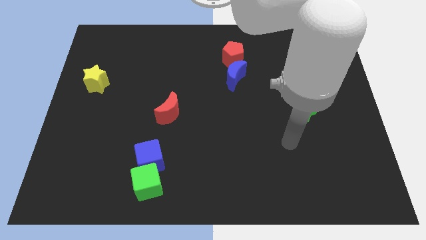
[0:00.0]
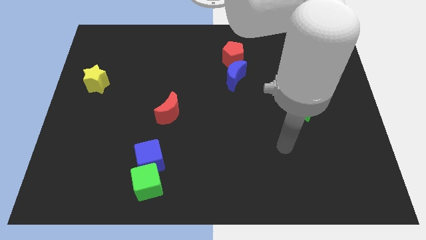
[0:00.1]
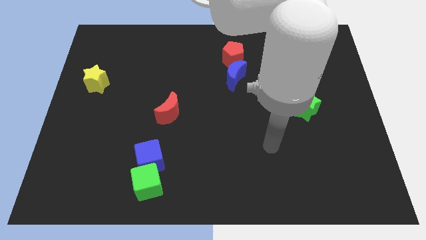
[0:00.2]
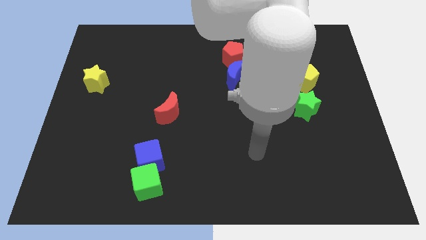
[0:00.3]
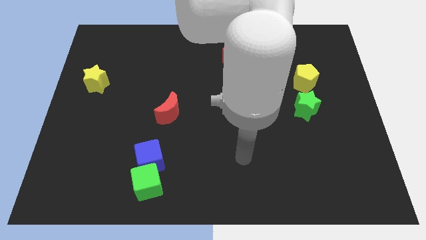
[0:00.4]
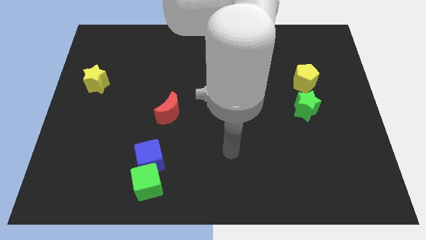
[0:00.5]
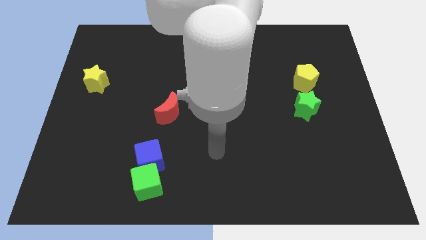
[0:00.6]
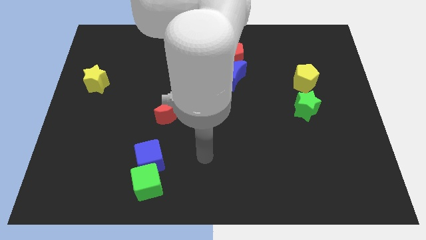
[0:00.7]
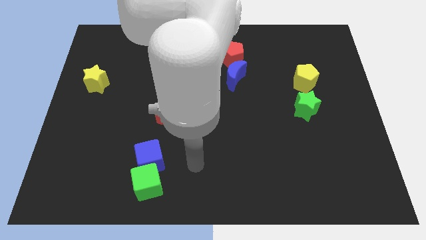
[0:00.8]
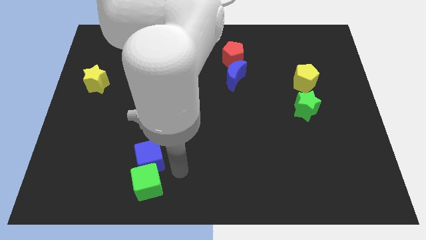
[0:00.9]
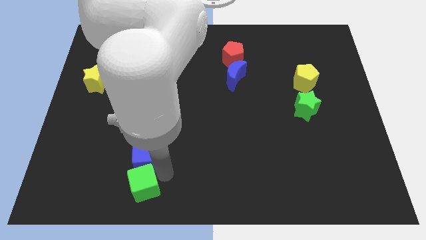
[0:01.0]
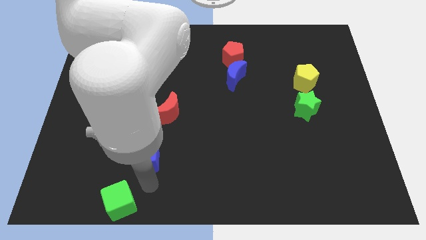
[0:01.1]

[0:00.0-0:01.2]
separate the blue cube from the green cube

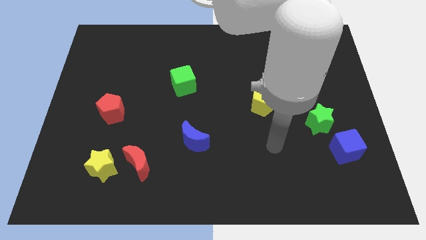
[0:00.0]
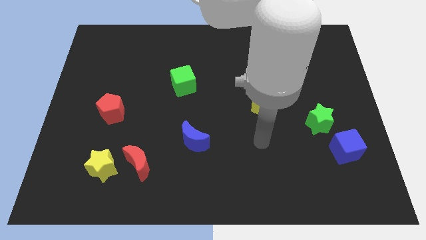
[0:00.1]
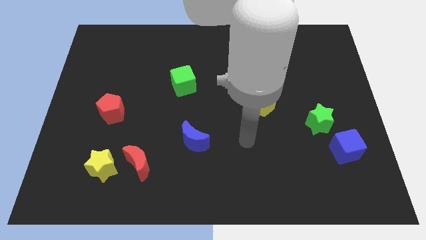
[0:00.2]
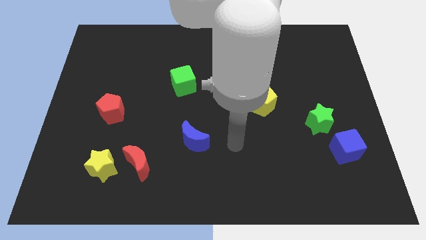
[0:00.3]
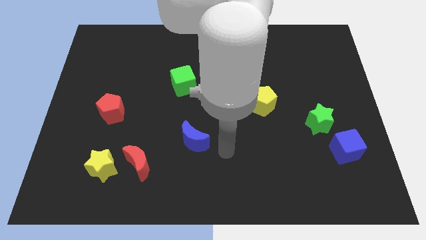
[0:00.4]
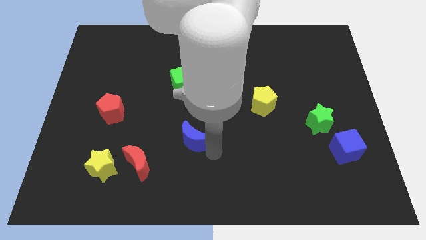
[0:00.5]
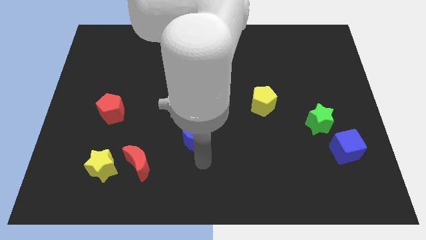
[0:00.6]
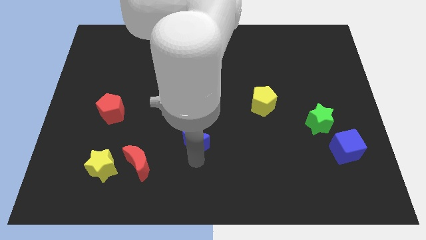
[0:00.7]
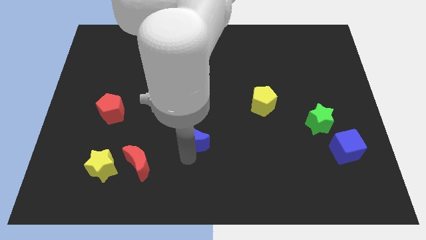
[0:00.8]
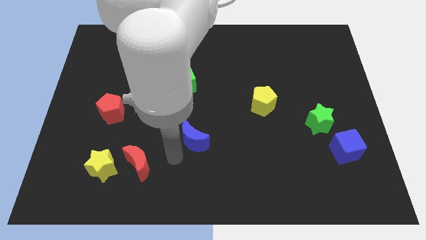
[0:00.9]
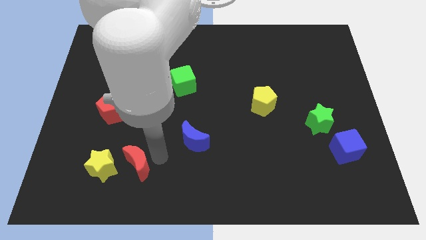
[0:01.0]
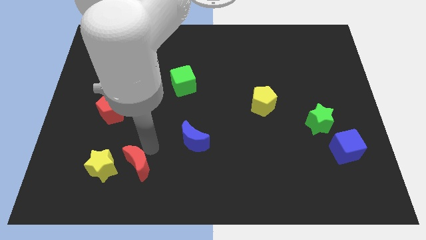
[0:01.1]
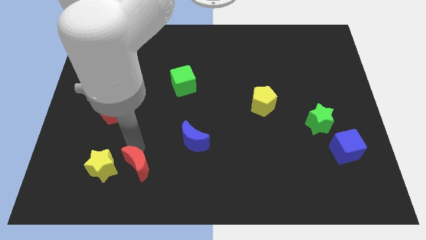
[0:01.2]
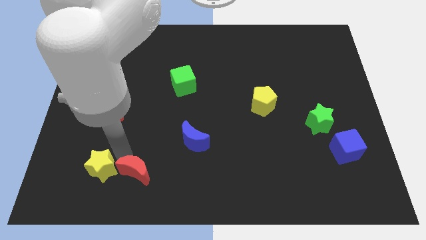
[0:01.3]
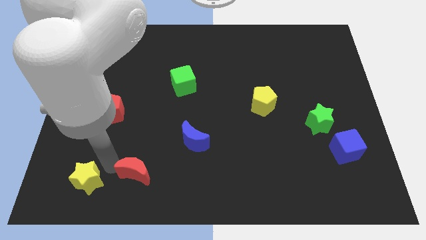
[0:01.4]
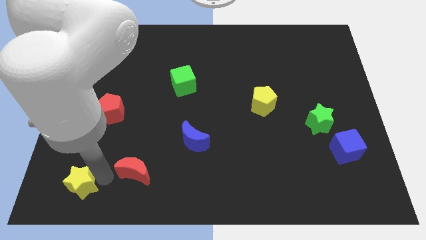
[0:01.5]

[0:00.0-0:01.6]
move the red moon away from the yellow star

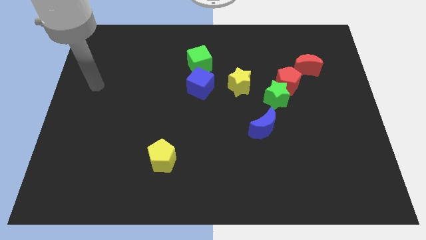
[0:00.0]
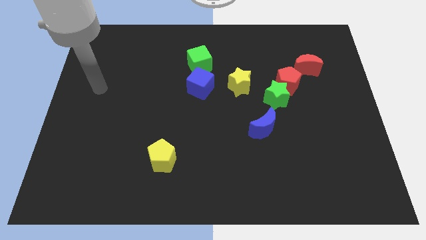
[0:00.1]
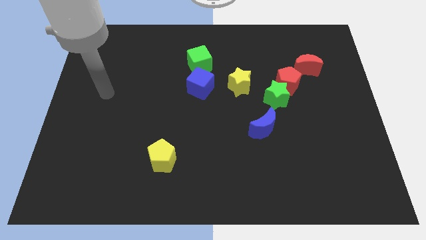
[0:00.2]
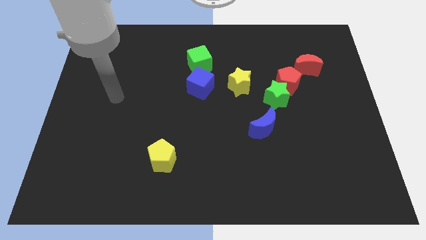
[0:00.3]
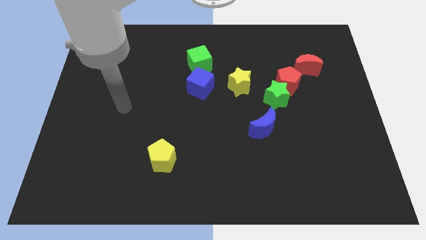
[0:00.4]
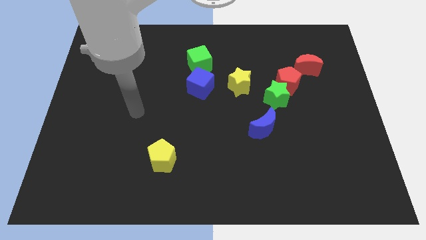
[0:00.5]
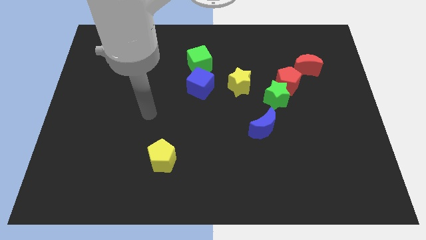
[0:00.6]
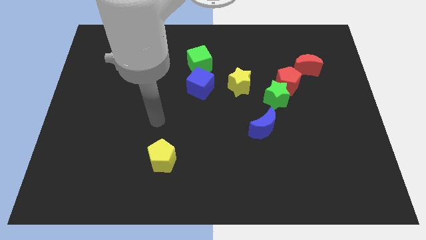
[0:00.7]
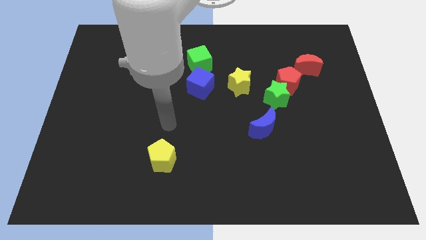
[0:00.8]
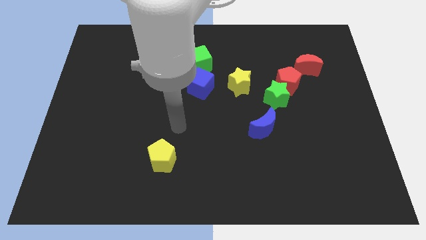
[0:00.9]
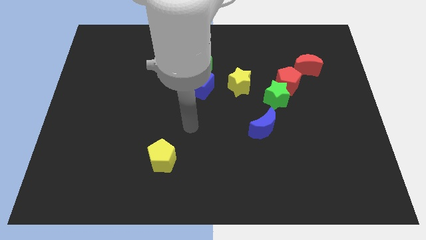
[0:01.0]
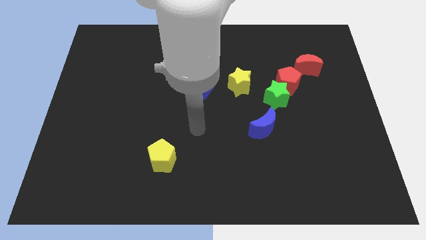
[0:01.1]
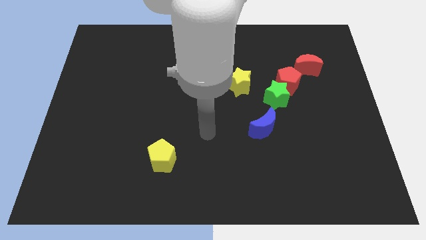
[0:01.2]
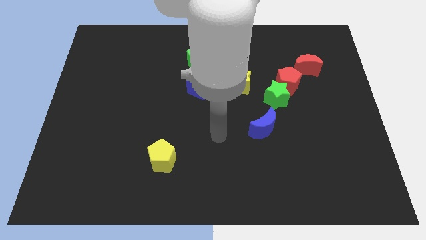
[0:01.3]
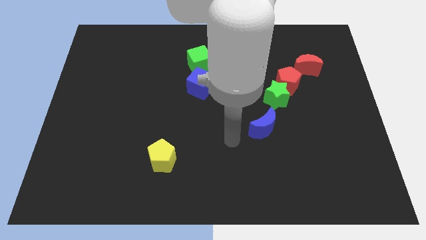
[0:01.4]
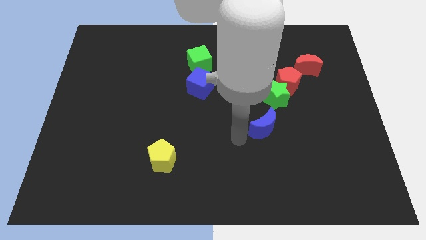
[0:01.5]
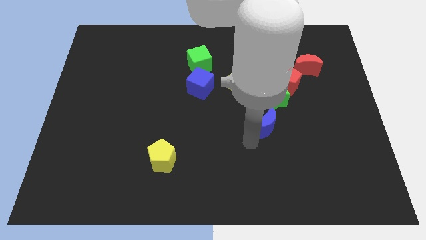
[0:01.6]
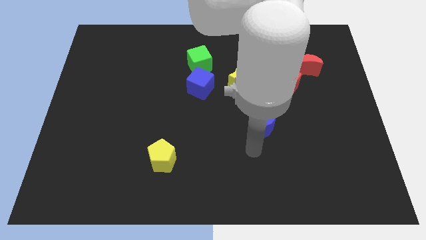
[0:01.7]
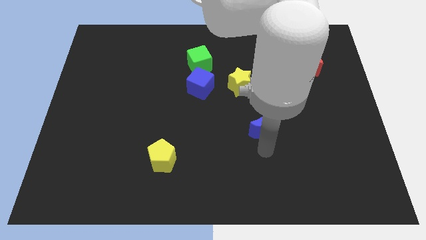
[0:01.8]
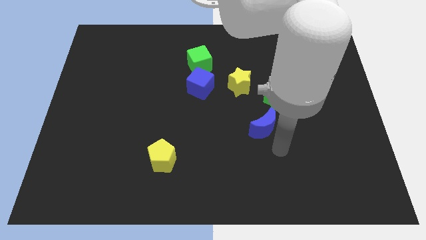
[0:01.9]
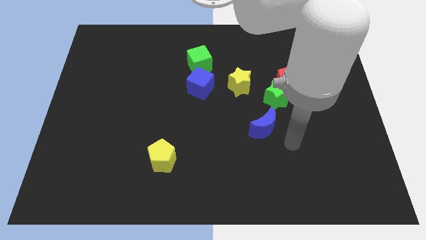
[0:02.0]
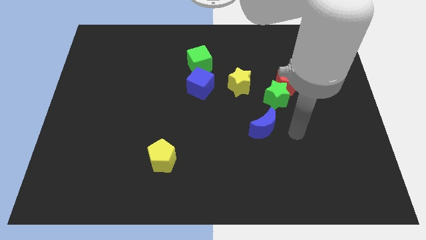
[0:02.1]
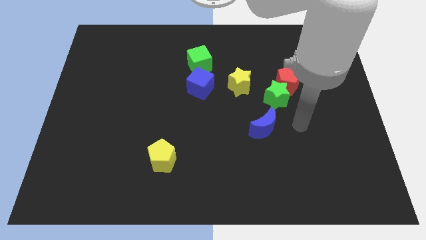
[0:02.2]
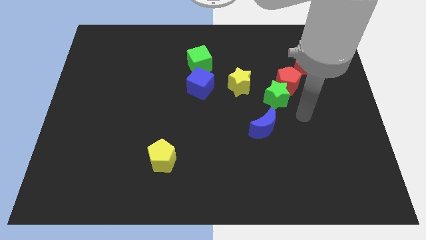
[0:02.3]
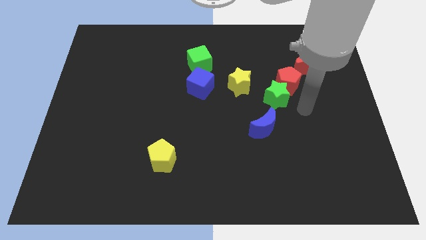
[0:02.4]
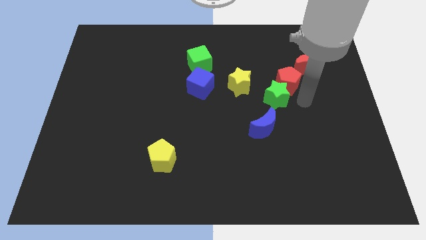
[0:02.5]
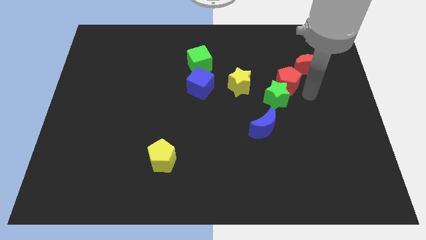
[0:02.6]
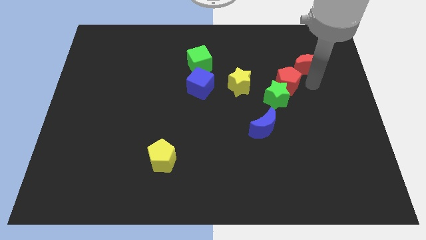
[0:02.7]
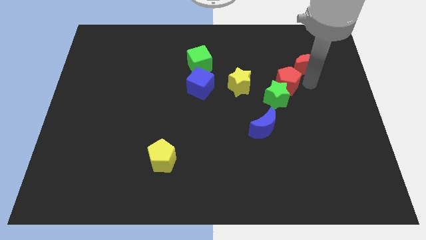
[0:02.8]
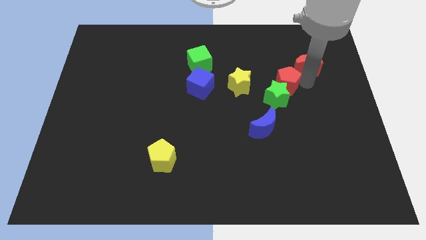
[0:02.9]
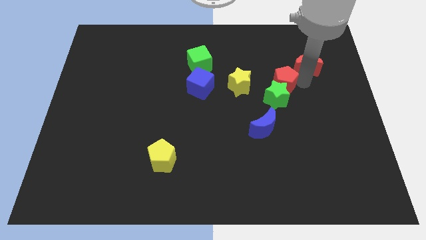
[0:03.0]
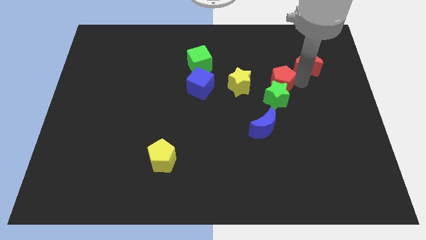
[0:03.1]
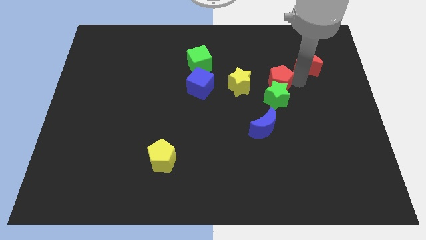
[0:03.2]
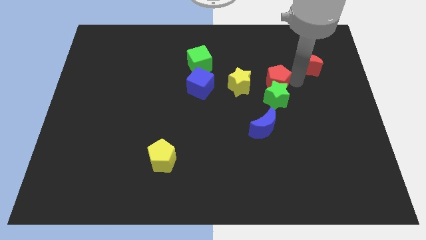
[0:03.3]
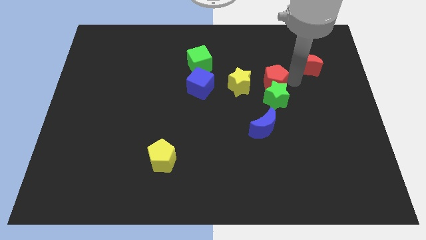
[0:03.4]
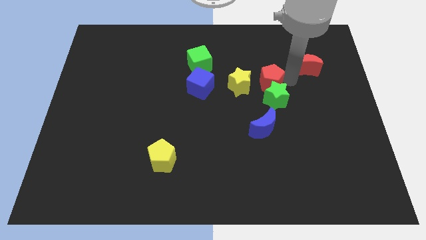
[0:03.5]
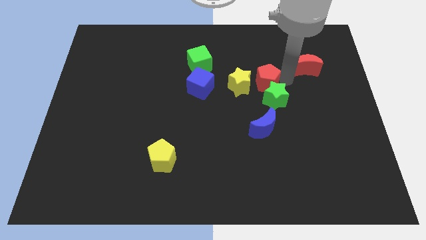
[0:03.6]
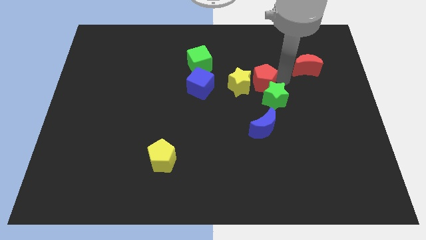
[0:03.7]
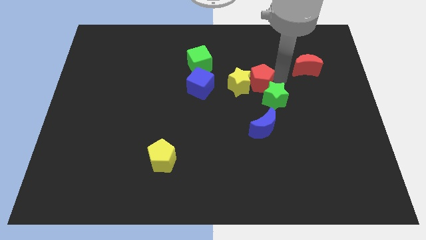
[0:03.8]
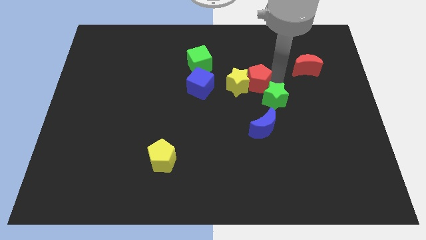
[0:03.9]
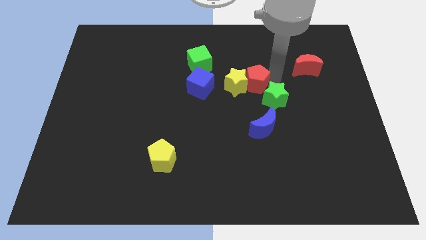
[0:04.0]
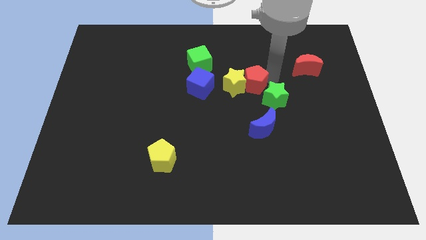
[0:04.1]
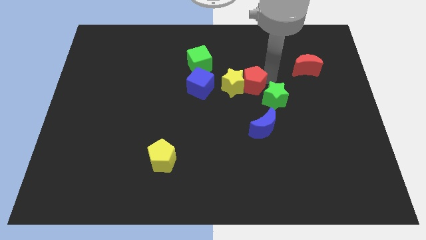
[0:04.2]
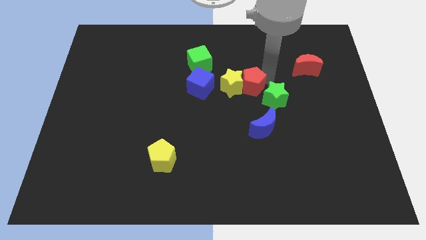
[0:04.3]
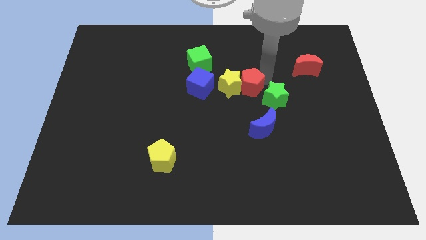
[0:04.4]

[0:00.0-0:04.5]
move the red pentagon away from the green star and red moon

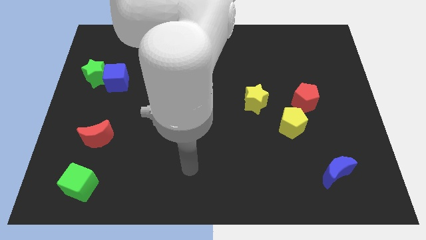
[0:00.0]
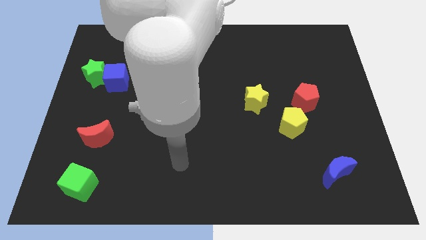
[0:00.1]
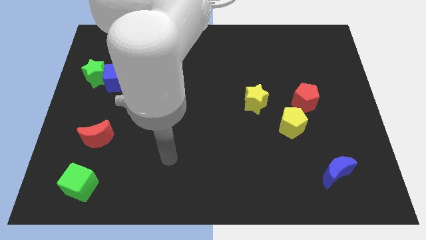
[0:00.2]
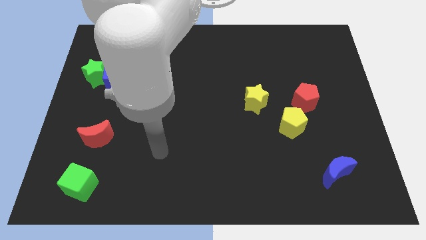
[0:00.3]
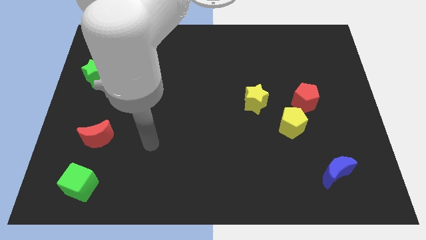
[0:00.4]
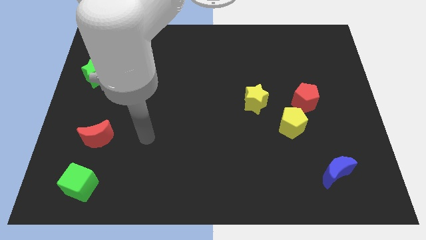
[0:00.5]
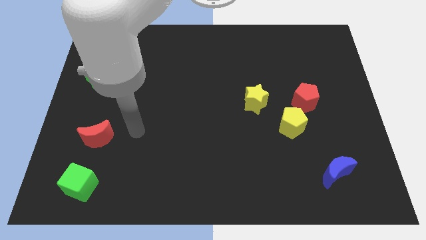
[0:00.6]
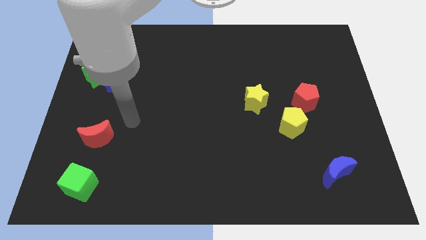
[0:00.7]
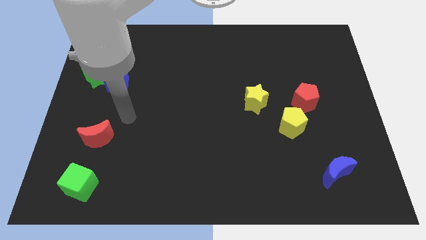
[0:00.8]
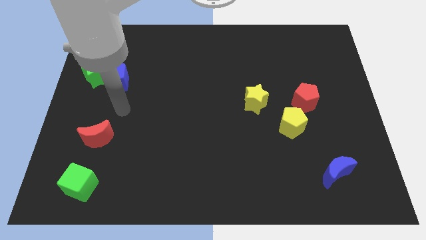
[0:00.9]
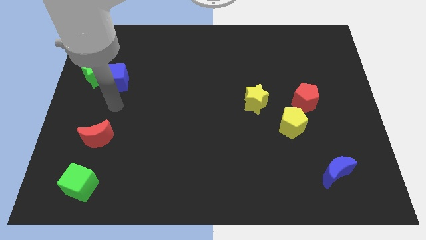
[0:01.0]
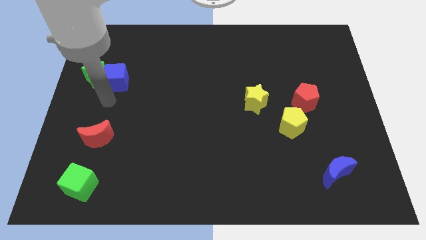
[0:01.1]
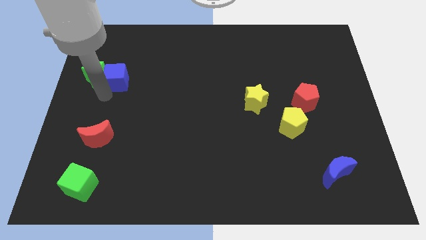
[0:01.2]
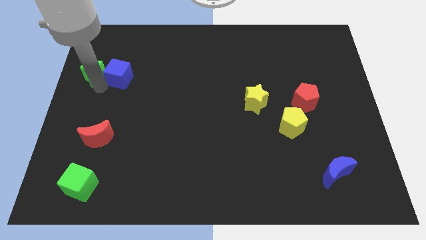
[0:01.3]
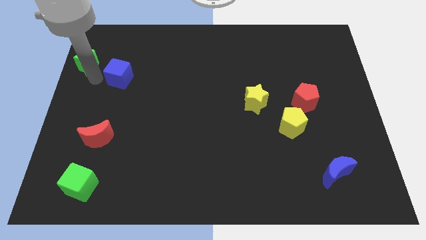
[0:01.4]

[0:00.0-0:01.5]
separate the blue cube from the green star

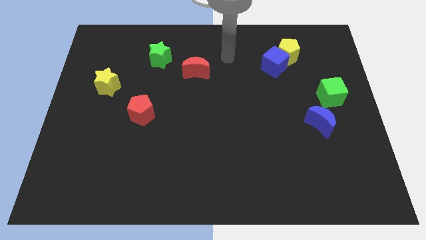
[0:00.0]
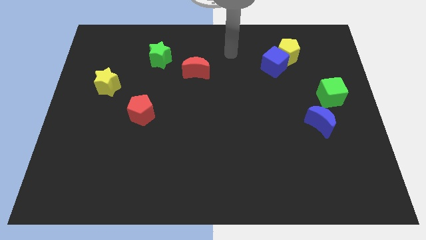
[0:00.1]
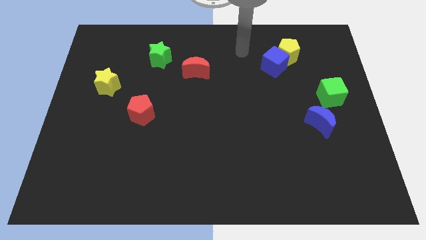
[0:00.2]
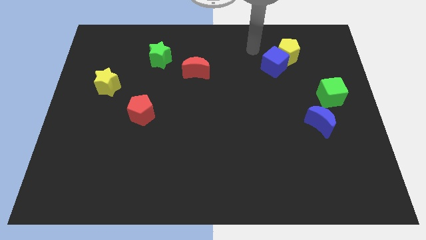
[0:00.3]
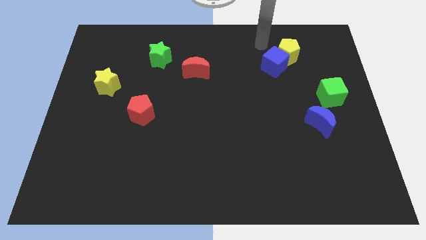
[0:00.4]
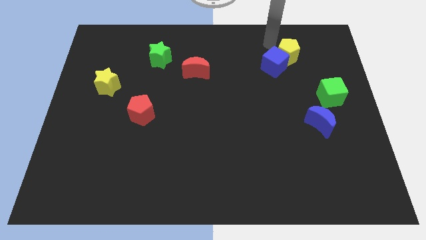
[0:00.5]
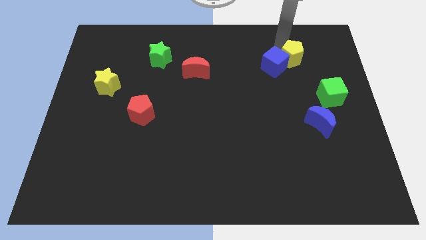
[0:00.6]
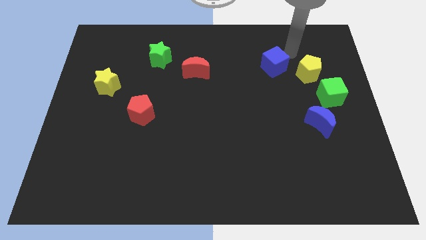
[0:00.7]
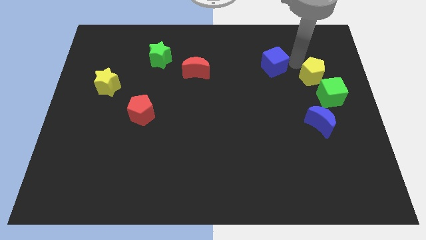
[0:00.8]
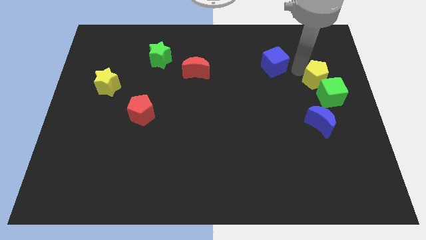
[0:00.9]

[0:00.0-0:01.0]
separate the blue cube from the yellow pentagon
